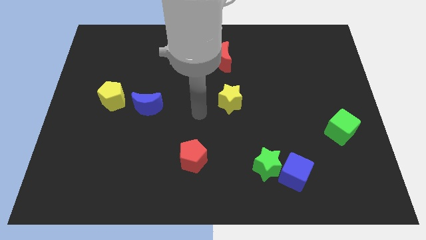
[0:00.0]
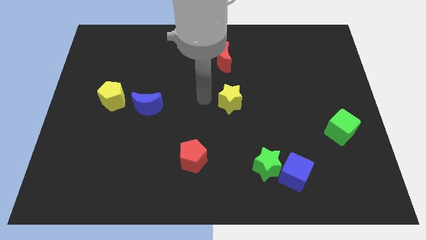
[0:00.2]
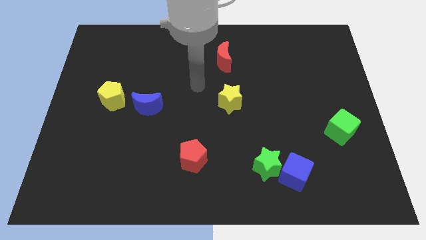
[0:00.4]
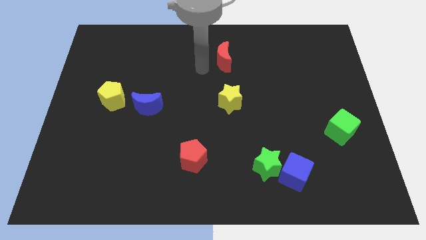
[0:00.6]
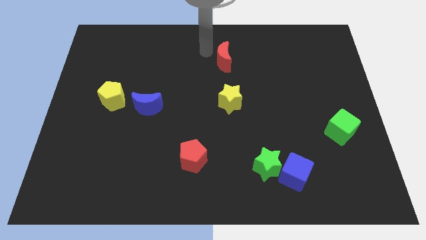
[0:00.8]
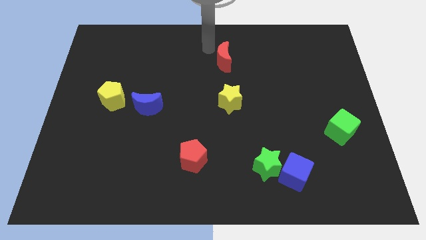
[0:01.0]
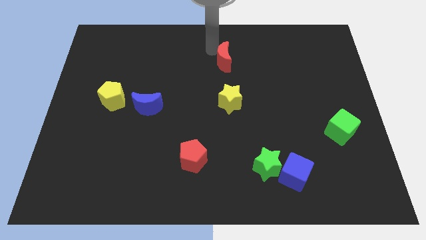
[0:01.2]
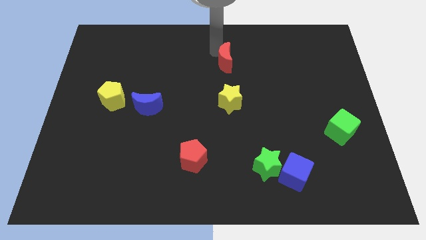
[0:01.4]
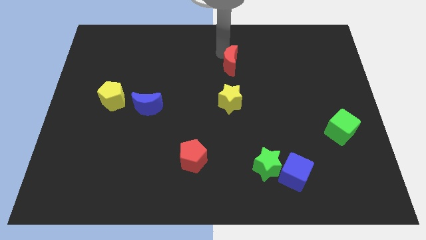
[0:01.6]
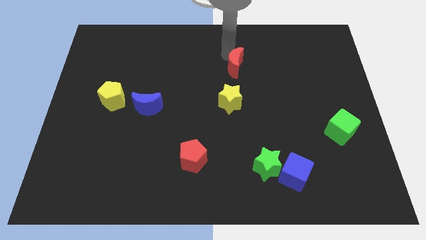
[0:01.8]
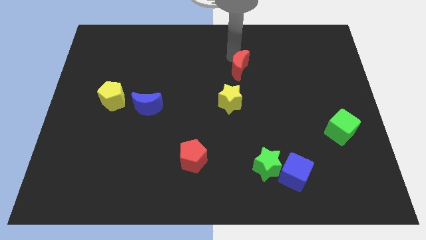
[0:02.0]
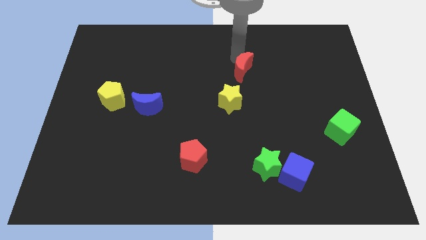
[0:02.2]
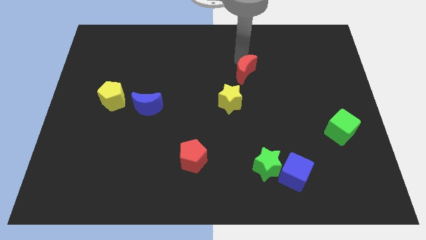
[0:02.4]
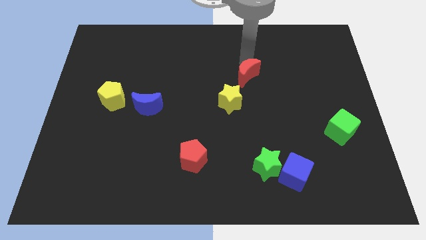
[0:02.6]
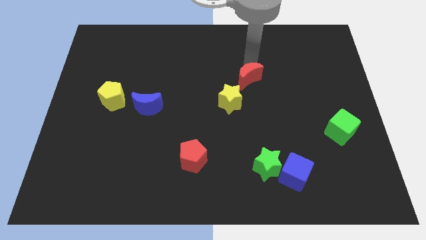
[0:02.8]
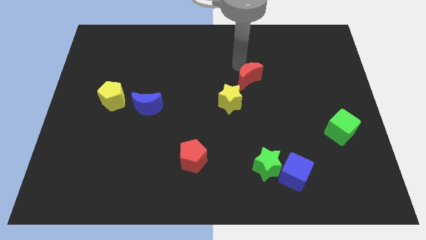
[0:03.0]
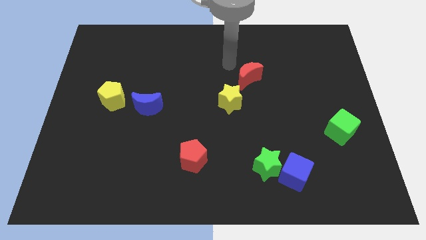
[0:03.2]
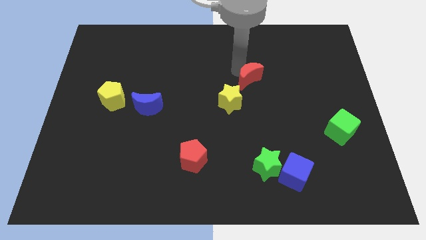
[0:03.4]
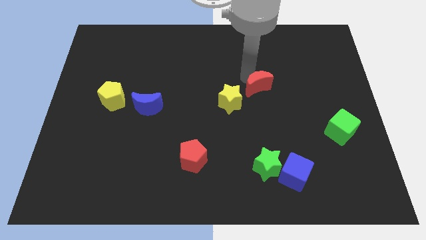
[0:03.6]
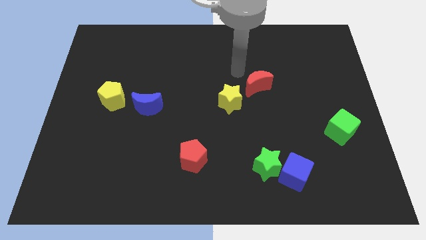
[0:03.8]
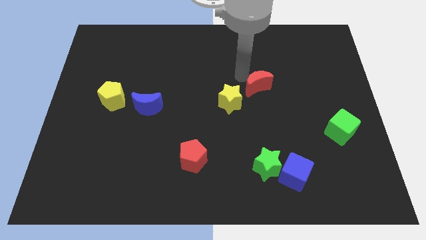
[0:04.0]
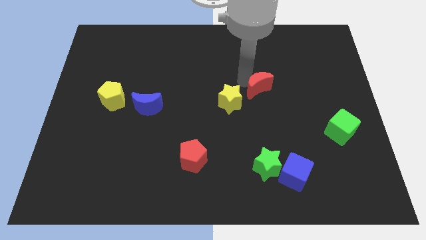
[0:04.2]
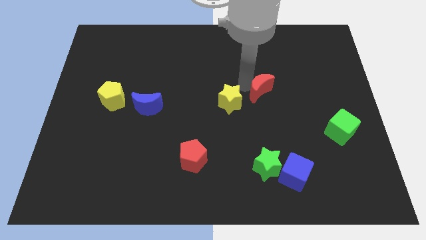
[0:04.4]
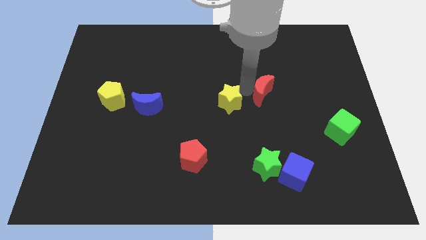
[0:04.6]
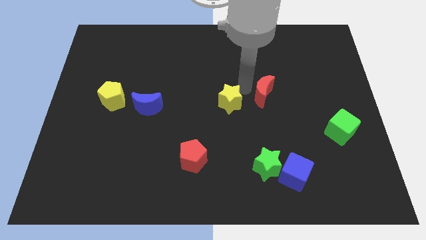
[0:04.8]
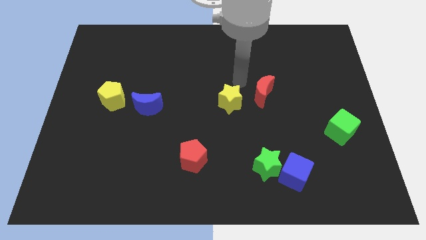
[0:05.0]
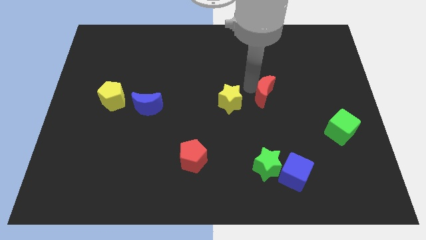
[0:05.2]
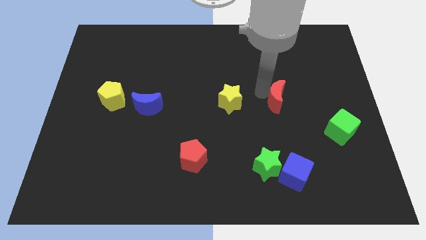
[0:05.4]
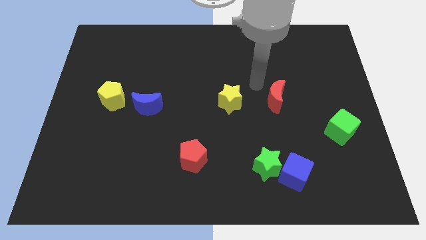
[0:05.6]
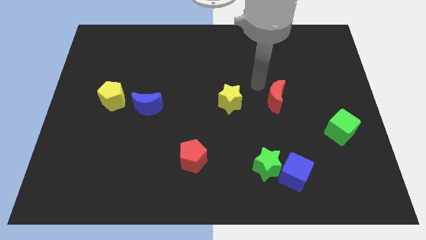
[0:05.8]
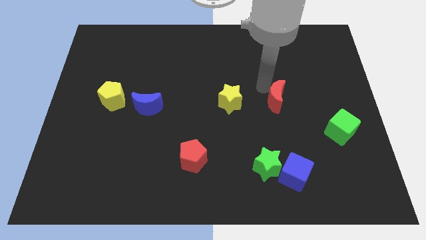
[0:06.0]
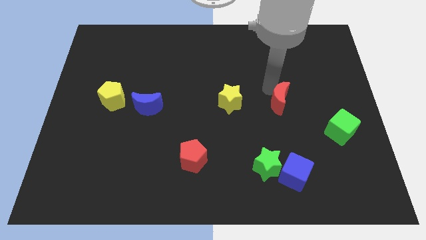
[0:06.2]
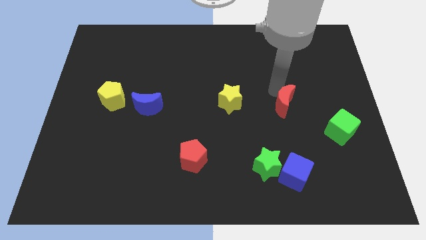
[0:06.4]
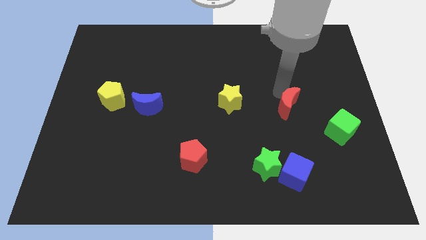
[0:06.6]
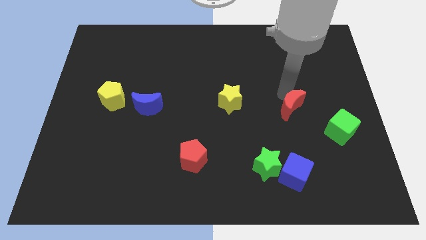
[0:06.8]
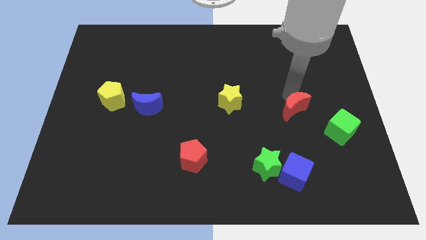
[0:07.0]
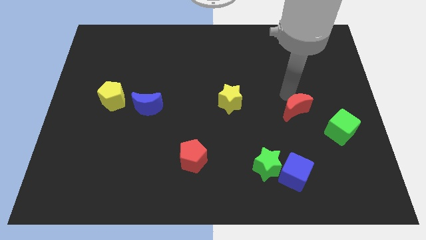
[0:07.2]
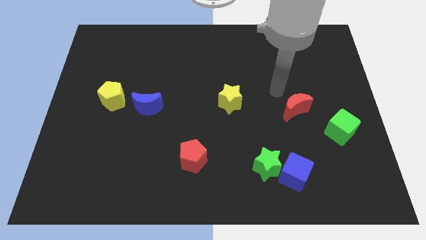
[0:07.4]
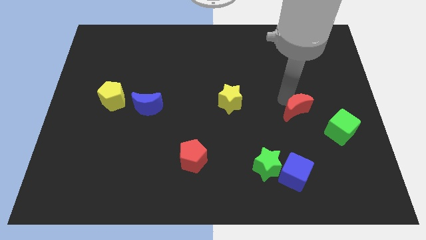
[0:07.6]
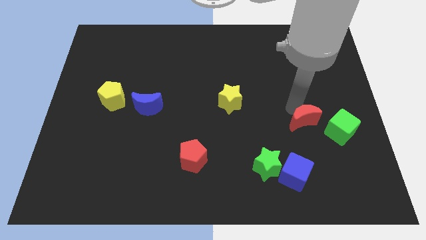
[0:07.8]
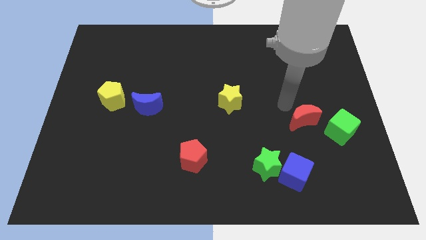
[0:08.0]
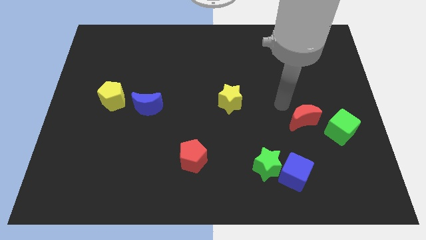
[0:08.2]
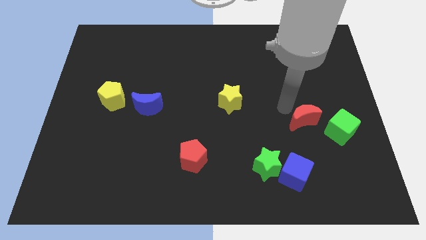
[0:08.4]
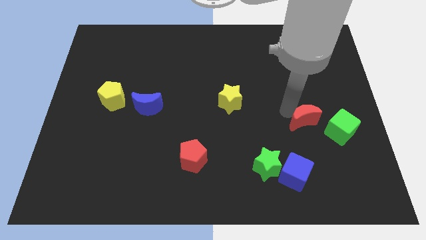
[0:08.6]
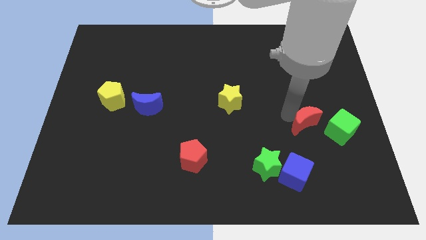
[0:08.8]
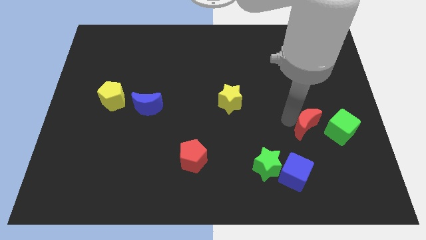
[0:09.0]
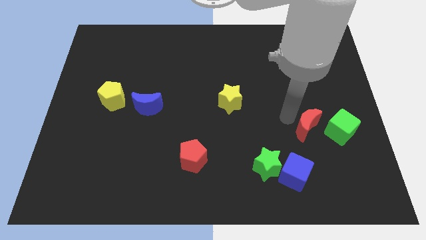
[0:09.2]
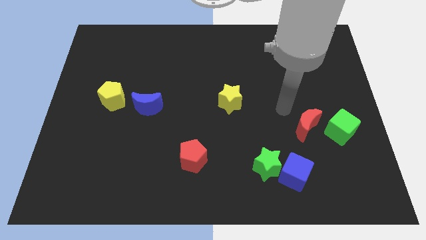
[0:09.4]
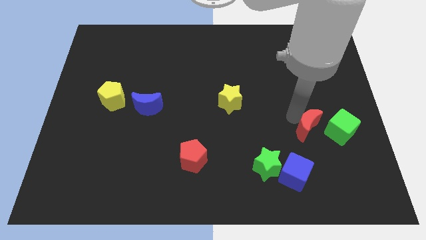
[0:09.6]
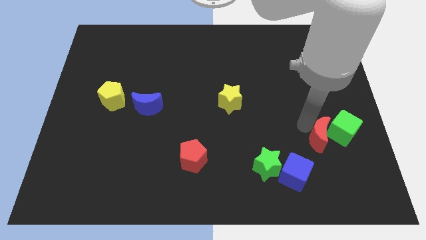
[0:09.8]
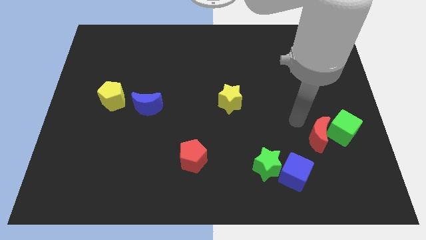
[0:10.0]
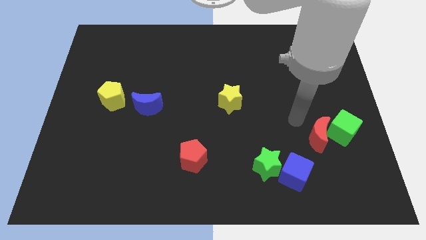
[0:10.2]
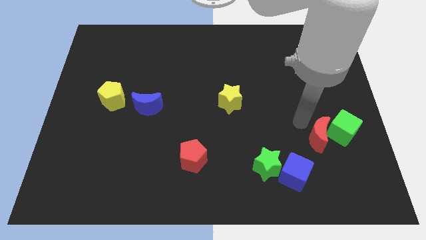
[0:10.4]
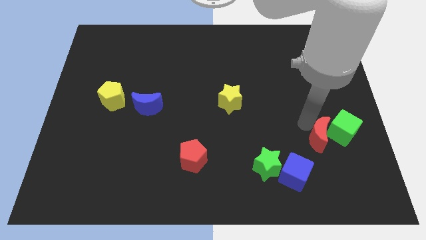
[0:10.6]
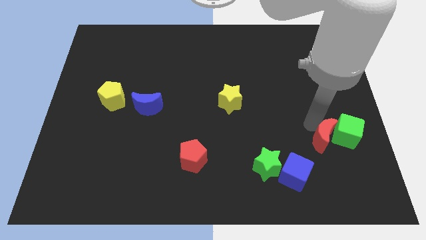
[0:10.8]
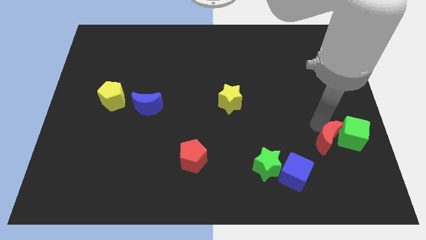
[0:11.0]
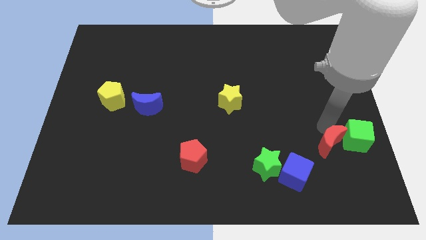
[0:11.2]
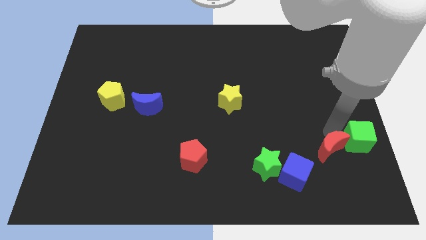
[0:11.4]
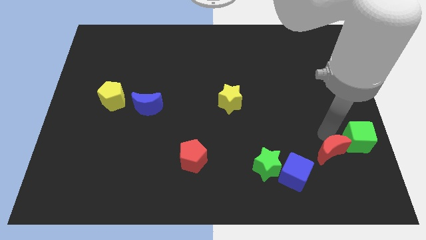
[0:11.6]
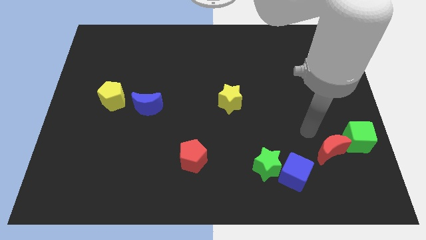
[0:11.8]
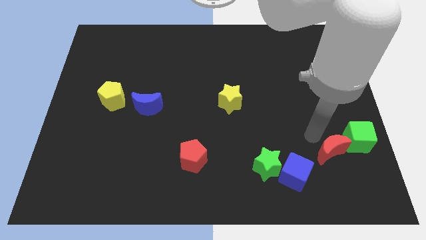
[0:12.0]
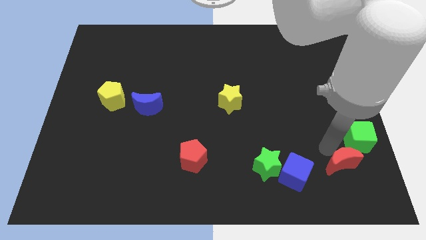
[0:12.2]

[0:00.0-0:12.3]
slide the red moon below the green cube
